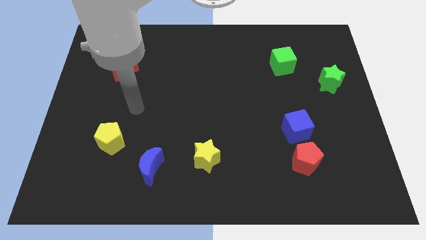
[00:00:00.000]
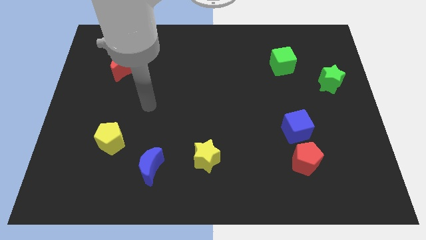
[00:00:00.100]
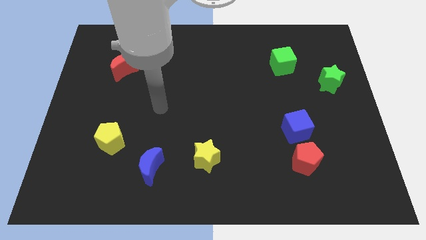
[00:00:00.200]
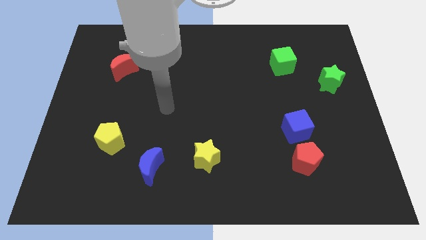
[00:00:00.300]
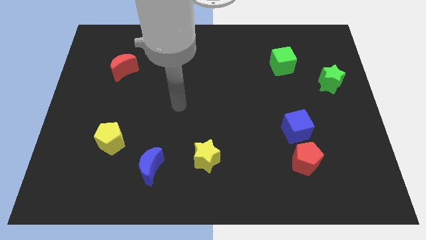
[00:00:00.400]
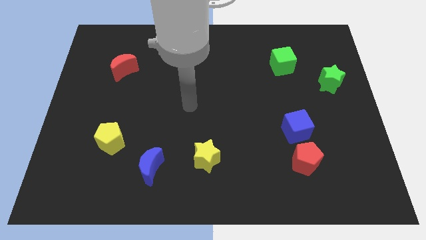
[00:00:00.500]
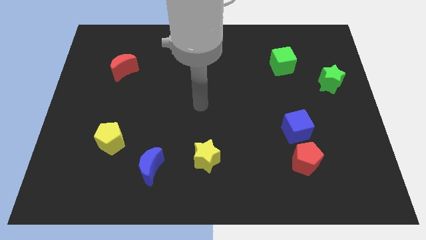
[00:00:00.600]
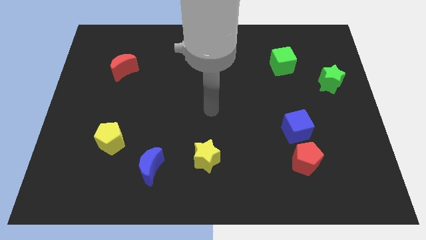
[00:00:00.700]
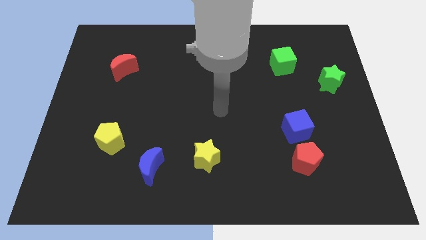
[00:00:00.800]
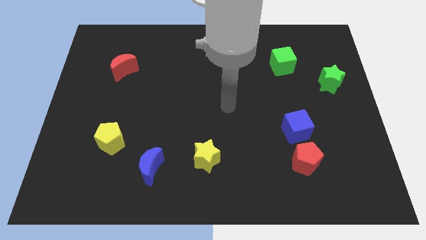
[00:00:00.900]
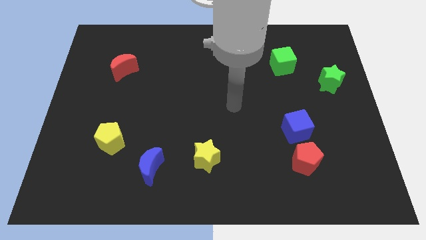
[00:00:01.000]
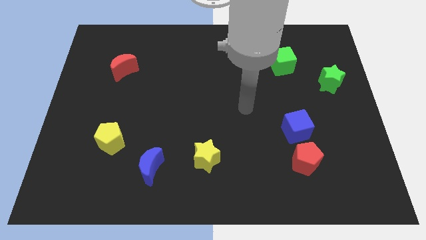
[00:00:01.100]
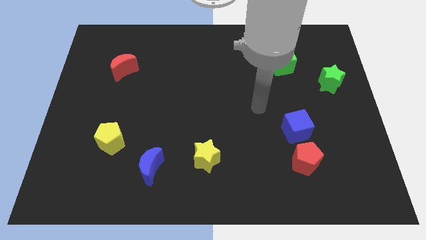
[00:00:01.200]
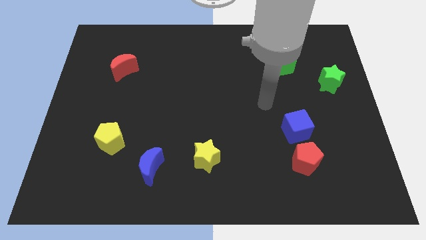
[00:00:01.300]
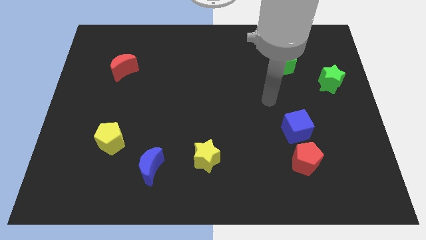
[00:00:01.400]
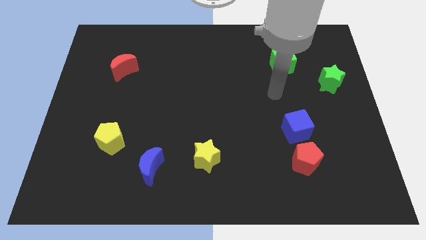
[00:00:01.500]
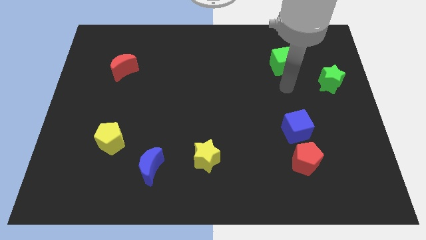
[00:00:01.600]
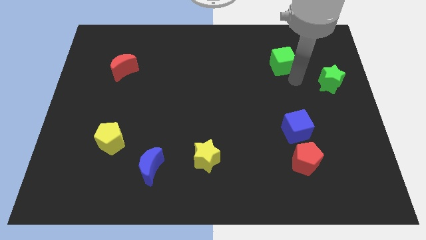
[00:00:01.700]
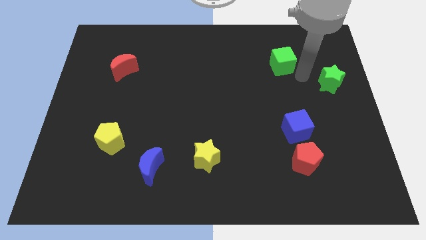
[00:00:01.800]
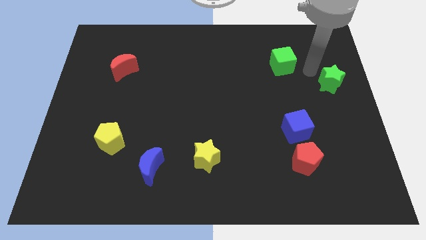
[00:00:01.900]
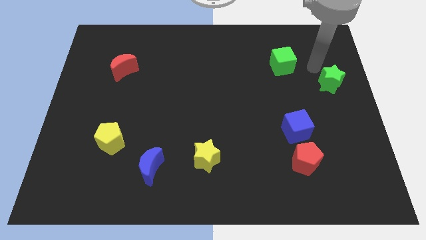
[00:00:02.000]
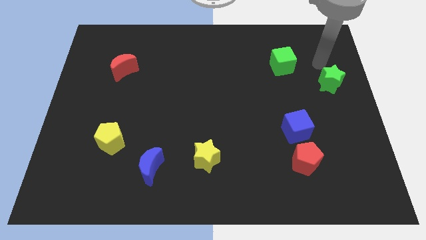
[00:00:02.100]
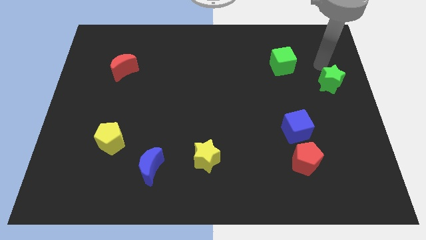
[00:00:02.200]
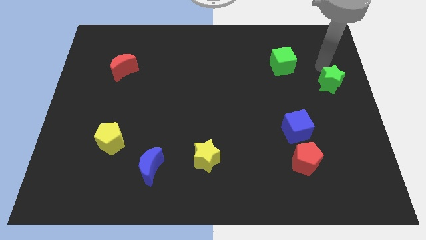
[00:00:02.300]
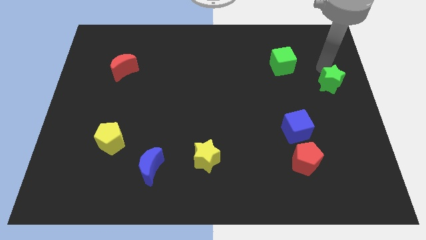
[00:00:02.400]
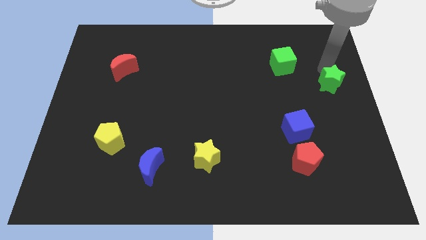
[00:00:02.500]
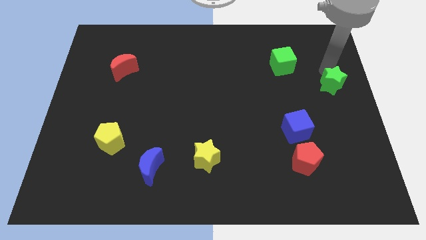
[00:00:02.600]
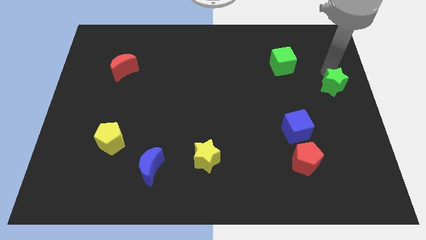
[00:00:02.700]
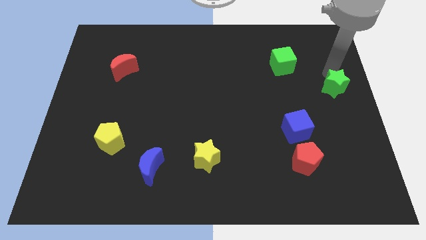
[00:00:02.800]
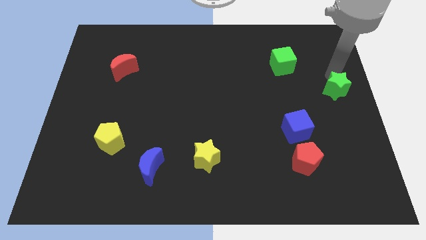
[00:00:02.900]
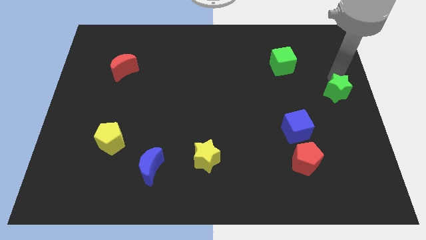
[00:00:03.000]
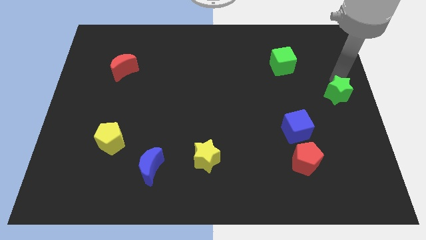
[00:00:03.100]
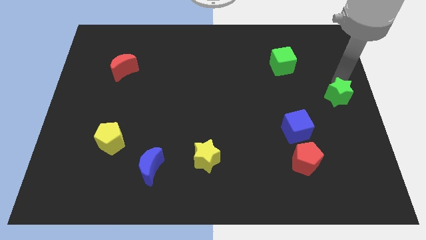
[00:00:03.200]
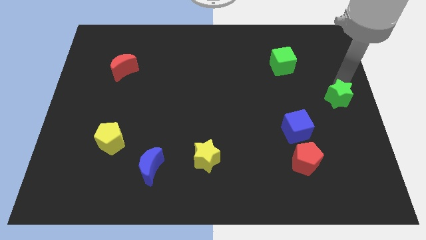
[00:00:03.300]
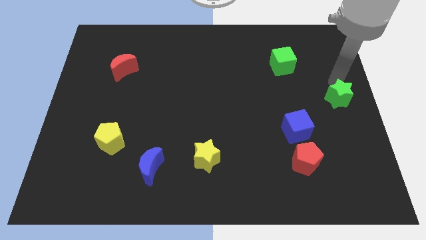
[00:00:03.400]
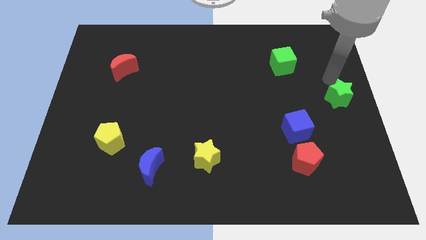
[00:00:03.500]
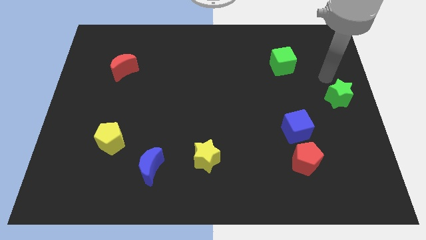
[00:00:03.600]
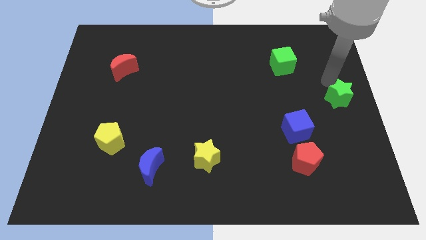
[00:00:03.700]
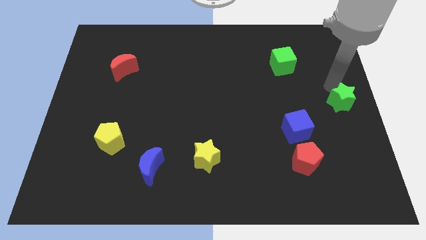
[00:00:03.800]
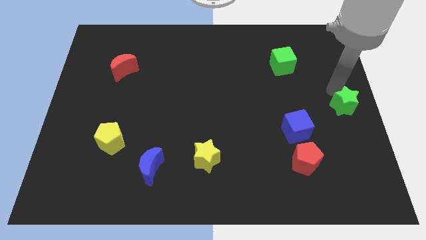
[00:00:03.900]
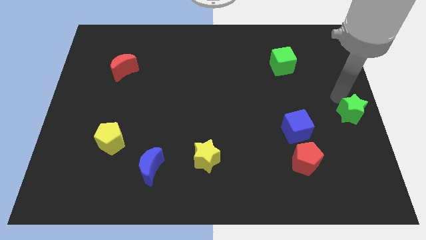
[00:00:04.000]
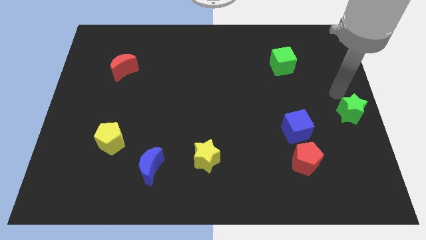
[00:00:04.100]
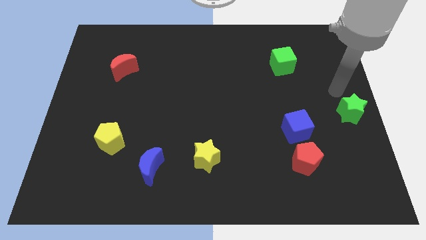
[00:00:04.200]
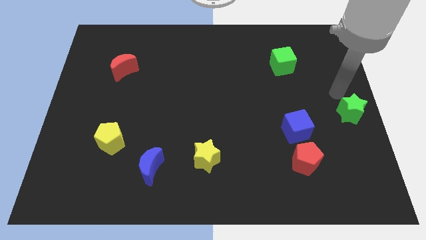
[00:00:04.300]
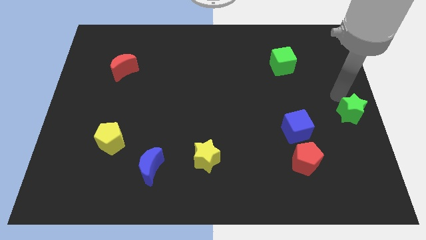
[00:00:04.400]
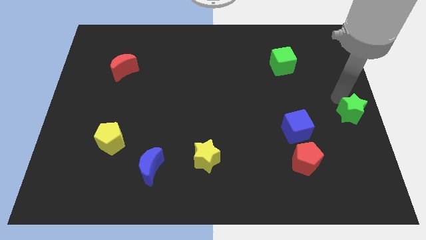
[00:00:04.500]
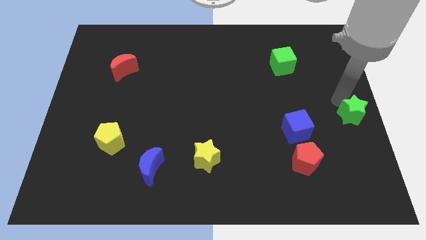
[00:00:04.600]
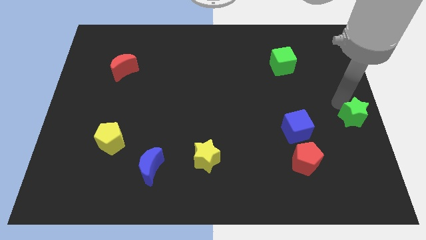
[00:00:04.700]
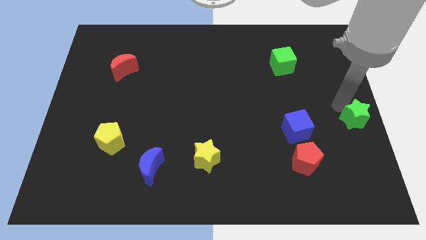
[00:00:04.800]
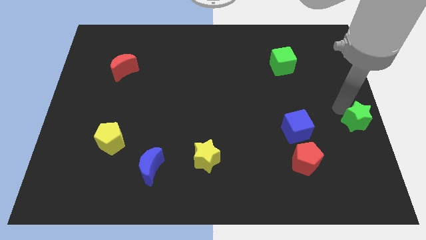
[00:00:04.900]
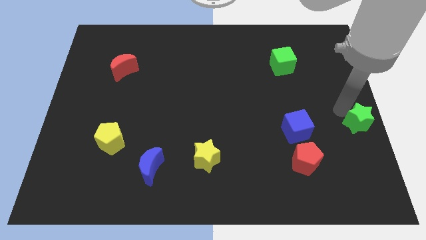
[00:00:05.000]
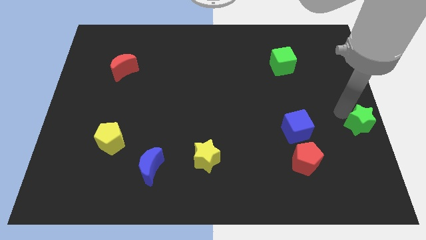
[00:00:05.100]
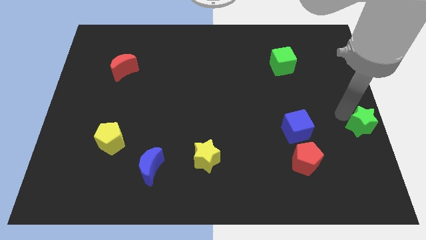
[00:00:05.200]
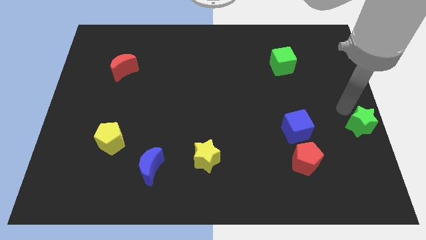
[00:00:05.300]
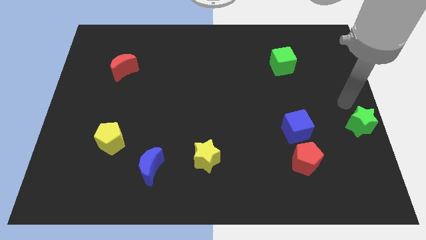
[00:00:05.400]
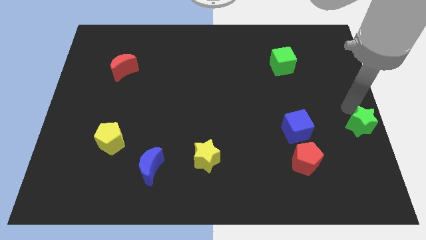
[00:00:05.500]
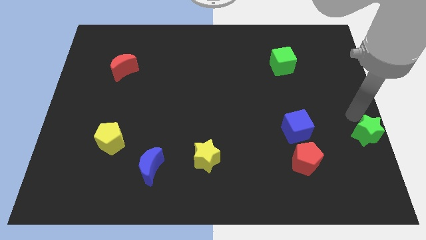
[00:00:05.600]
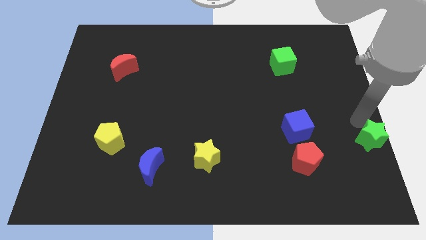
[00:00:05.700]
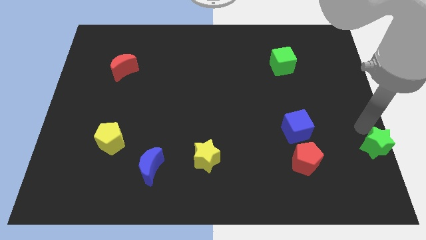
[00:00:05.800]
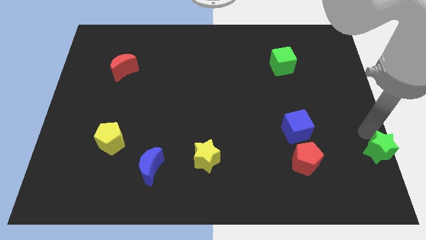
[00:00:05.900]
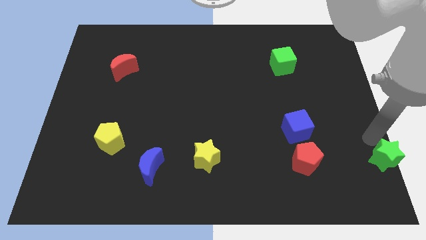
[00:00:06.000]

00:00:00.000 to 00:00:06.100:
slide the green star to the bottom right
